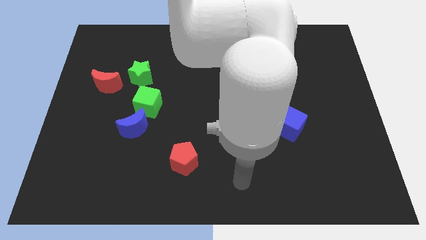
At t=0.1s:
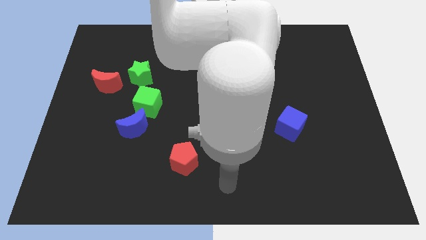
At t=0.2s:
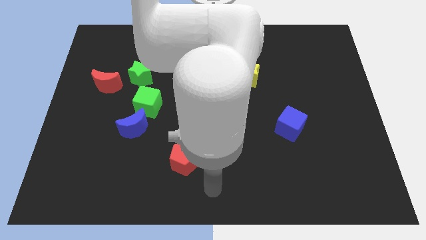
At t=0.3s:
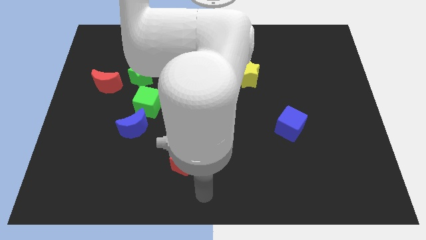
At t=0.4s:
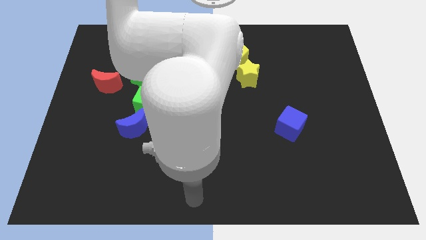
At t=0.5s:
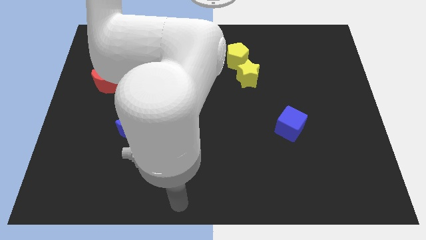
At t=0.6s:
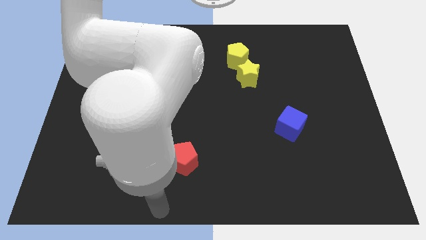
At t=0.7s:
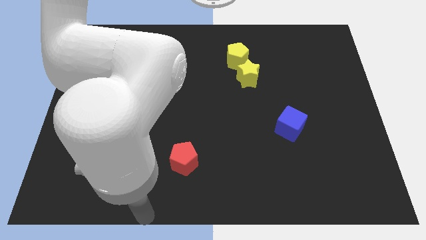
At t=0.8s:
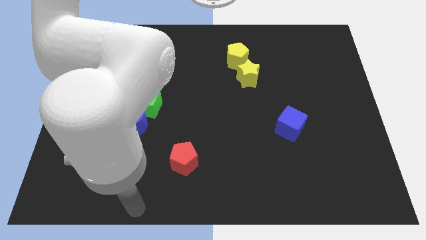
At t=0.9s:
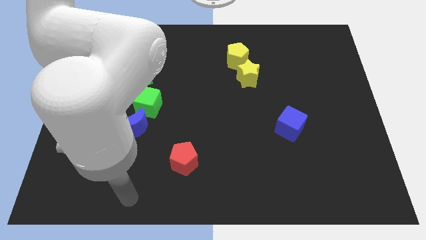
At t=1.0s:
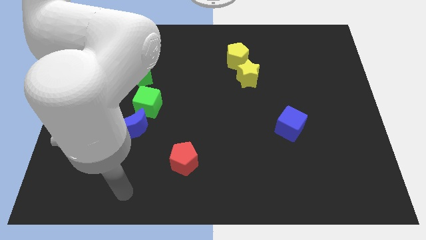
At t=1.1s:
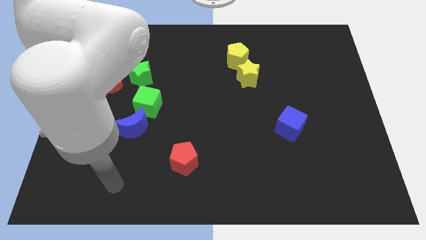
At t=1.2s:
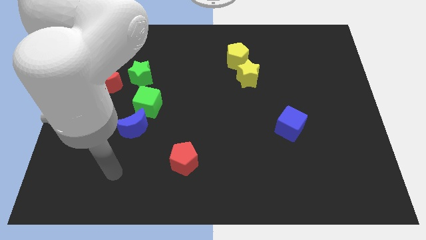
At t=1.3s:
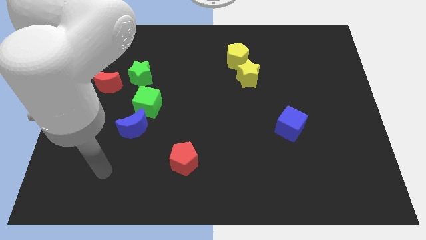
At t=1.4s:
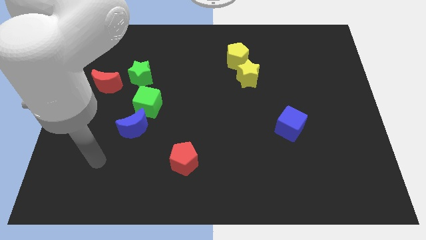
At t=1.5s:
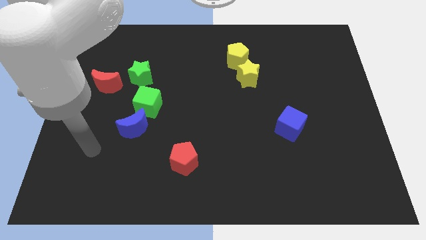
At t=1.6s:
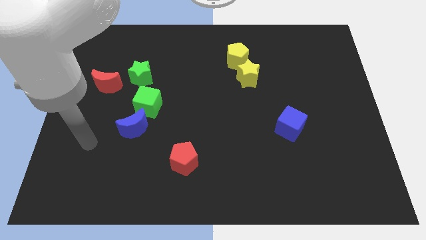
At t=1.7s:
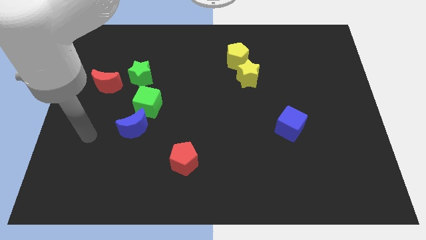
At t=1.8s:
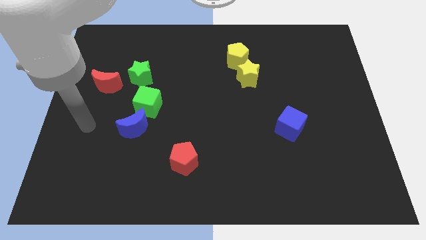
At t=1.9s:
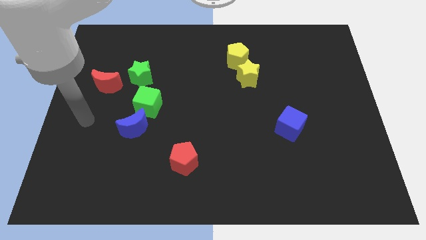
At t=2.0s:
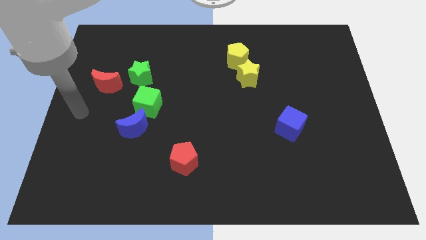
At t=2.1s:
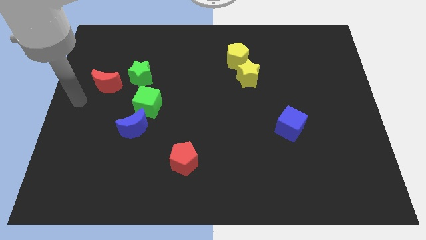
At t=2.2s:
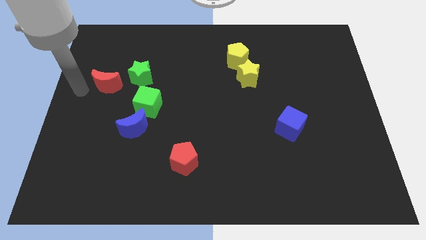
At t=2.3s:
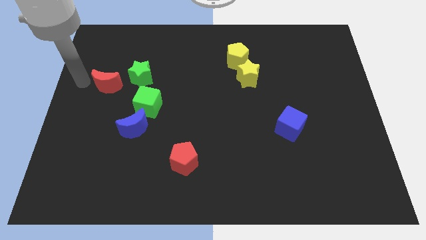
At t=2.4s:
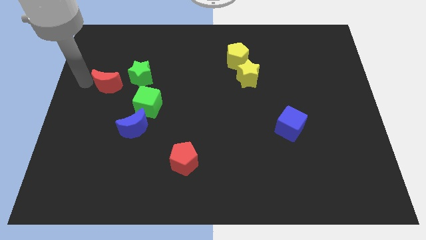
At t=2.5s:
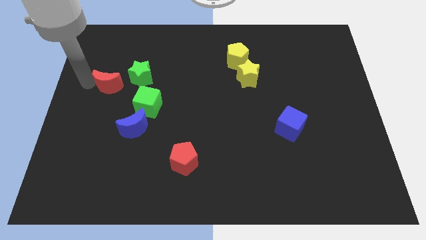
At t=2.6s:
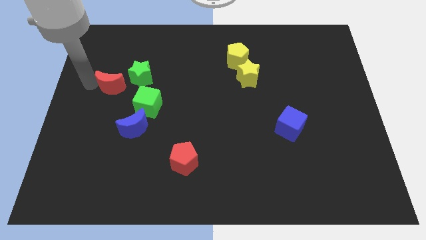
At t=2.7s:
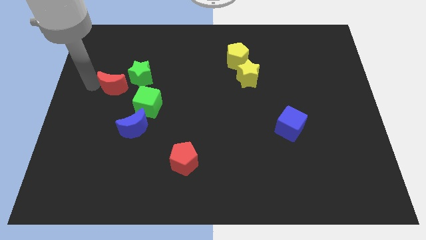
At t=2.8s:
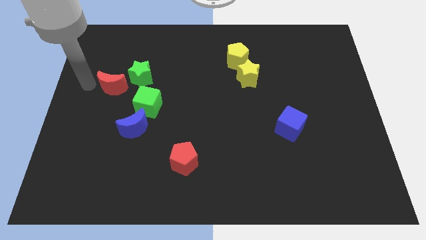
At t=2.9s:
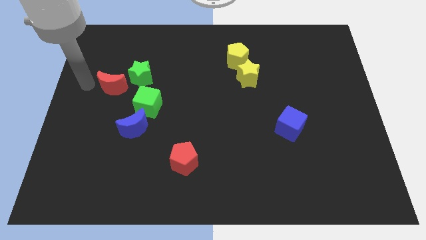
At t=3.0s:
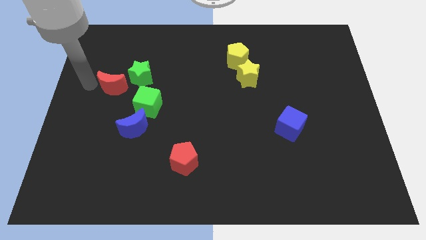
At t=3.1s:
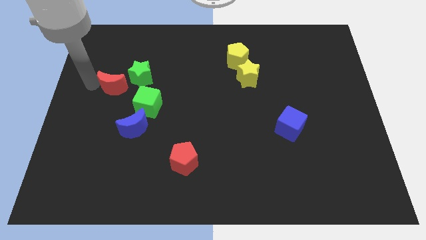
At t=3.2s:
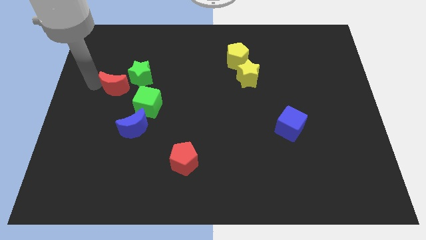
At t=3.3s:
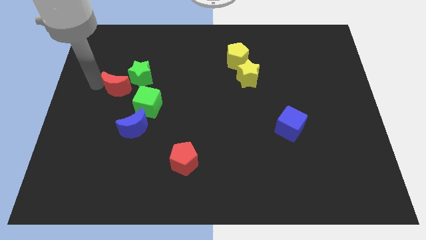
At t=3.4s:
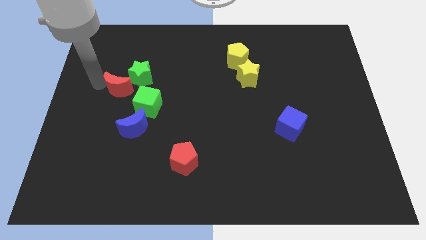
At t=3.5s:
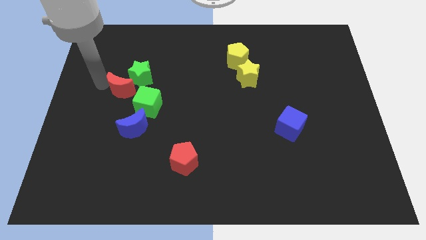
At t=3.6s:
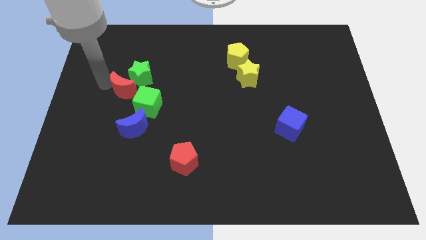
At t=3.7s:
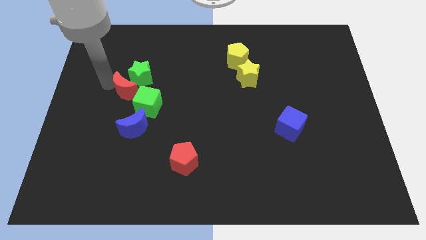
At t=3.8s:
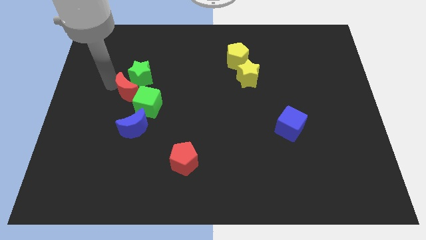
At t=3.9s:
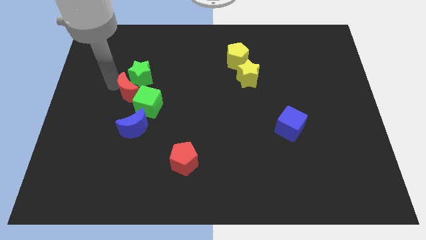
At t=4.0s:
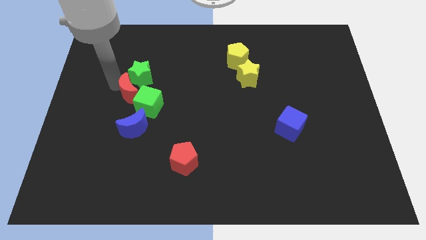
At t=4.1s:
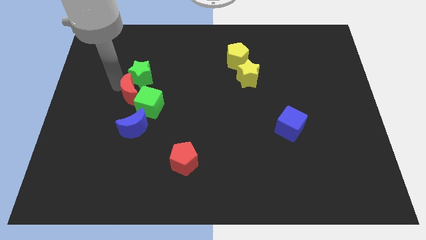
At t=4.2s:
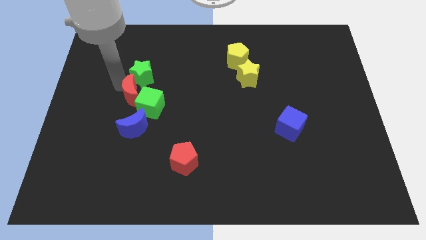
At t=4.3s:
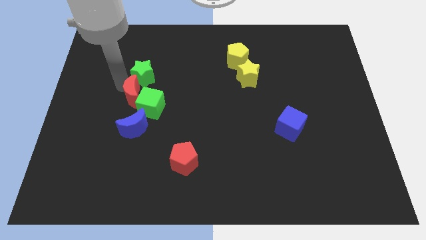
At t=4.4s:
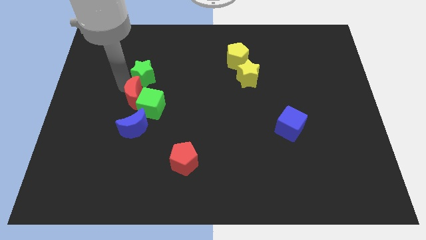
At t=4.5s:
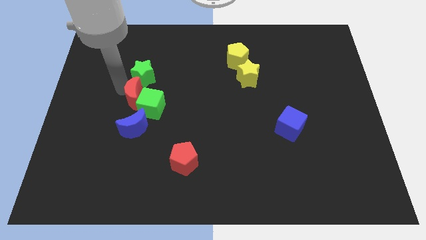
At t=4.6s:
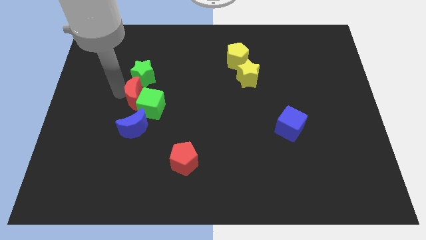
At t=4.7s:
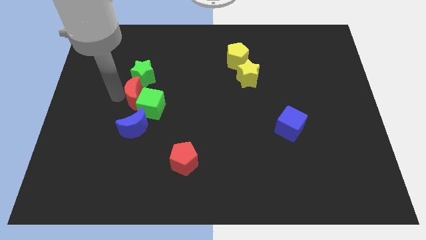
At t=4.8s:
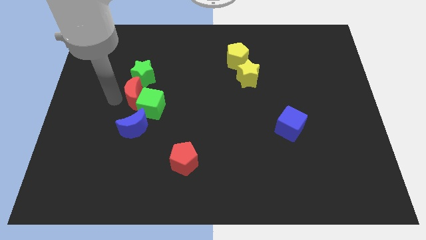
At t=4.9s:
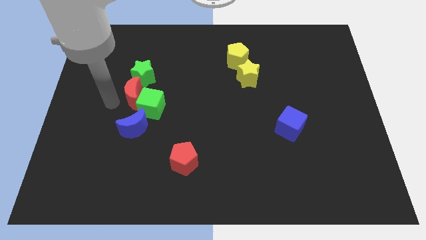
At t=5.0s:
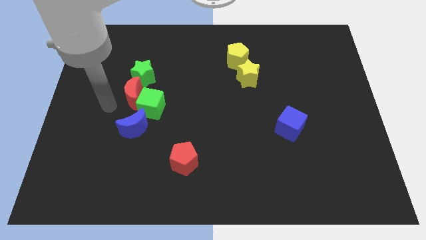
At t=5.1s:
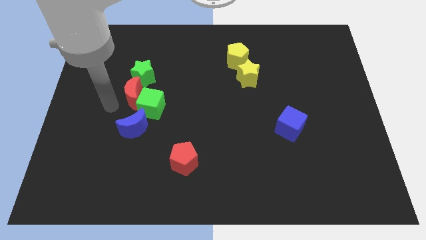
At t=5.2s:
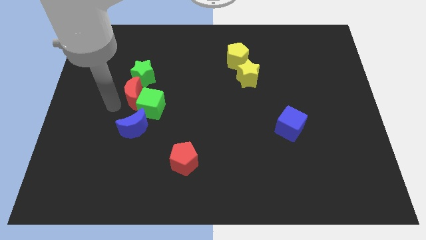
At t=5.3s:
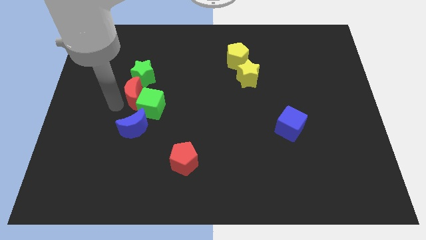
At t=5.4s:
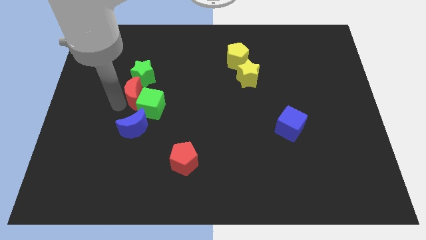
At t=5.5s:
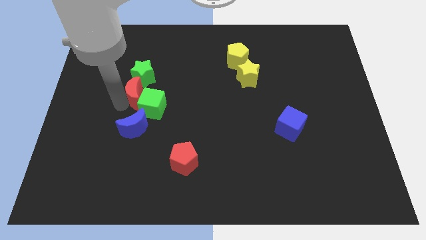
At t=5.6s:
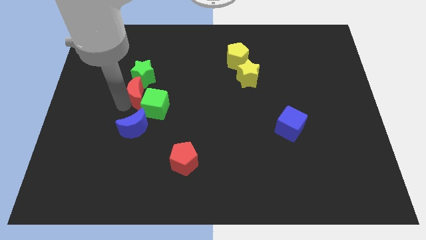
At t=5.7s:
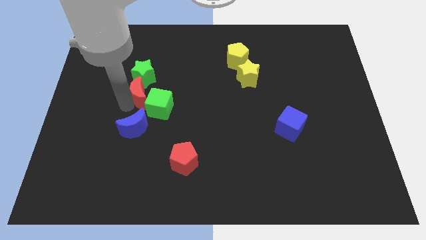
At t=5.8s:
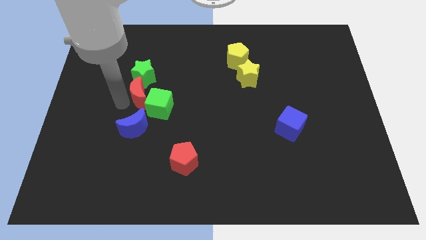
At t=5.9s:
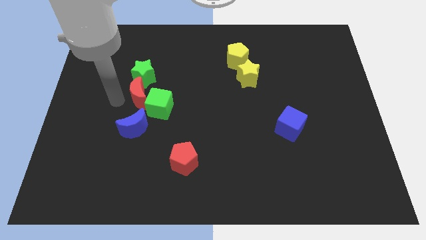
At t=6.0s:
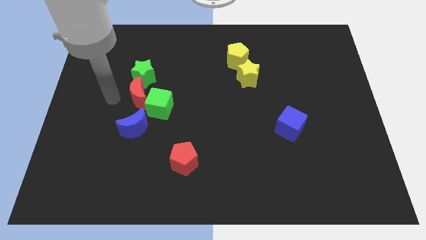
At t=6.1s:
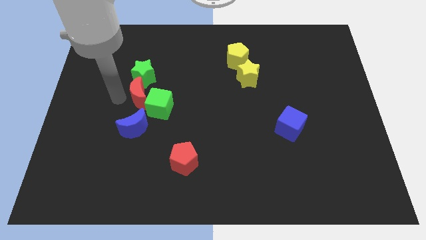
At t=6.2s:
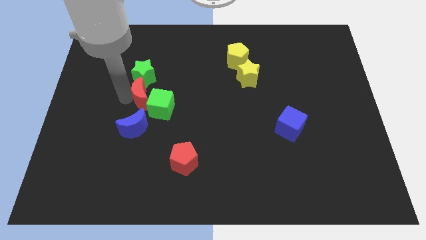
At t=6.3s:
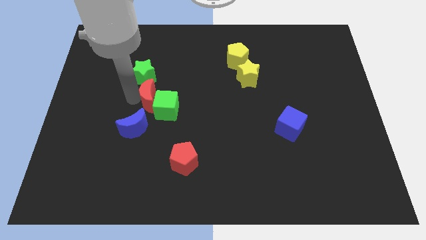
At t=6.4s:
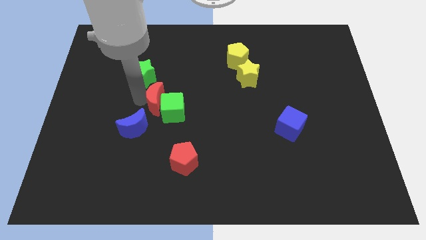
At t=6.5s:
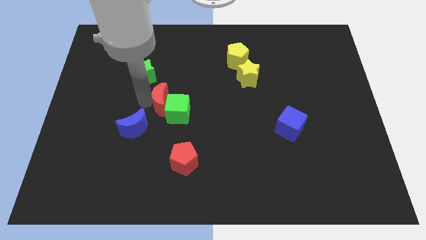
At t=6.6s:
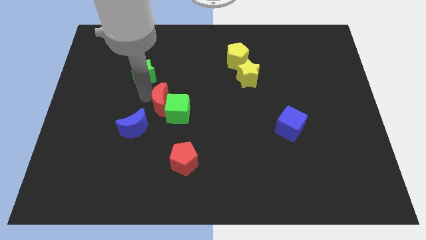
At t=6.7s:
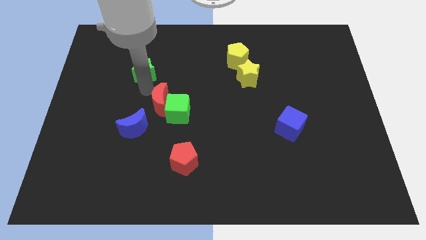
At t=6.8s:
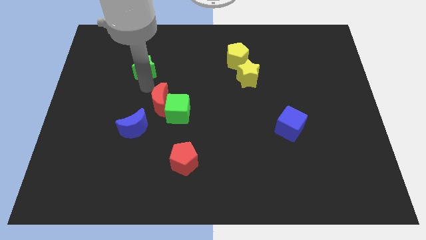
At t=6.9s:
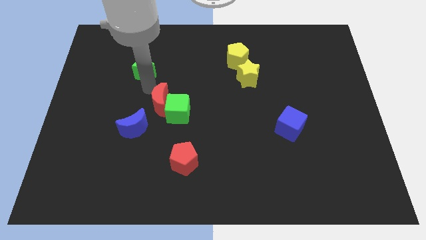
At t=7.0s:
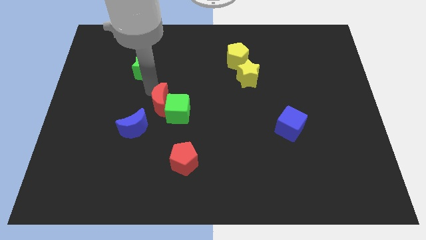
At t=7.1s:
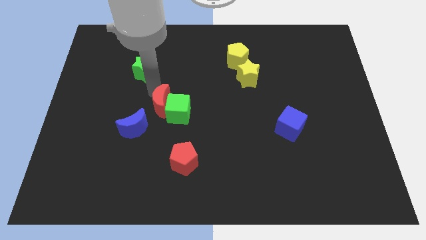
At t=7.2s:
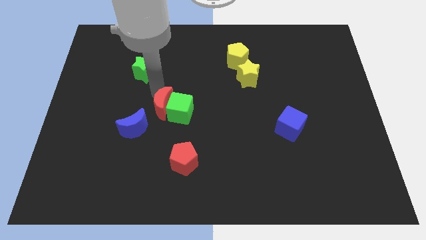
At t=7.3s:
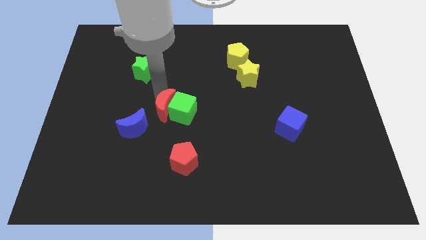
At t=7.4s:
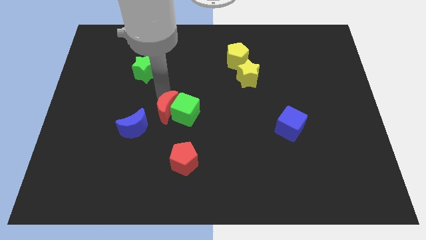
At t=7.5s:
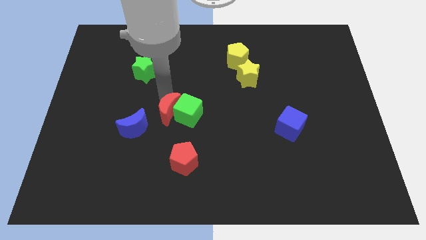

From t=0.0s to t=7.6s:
slide the red moon right of the blue moon
